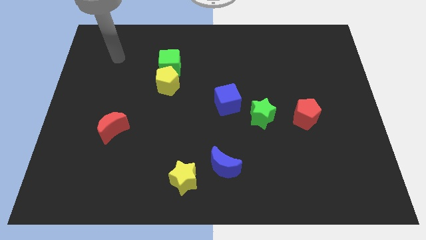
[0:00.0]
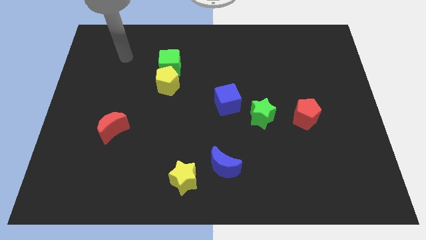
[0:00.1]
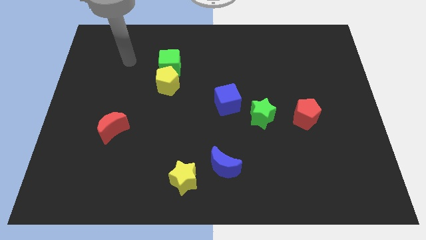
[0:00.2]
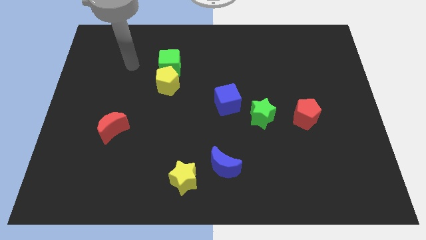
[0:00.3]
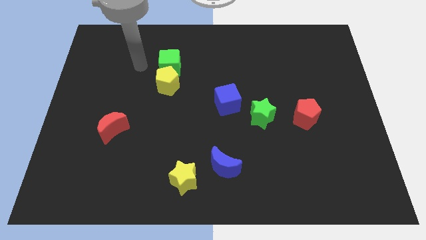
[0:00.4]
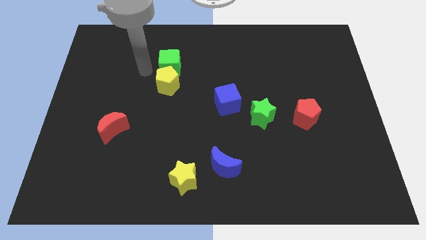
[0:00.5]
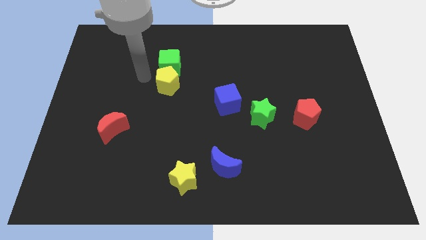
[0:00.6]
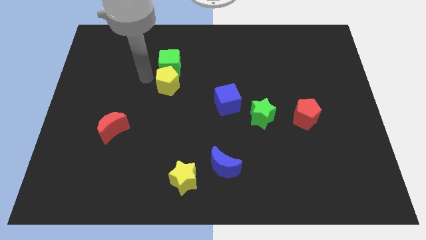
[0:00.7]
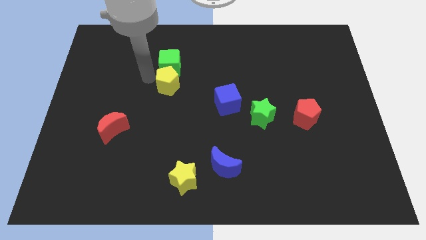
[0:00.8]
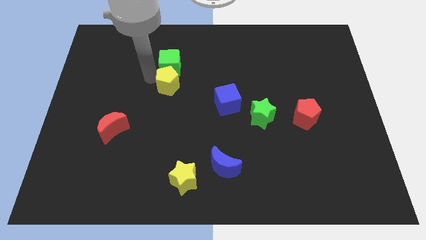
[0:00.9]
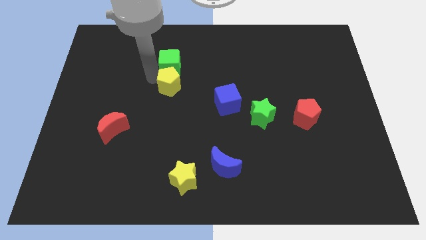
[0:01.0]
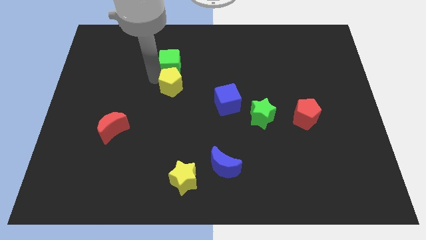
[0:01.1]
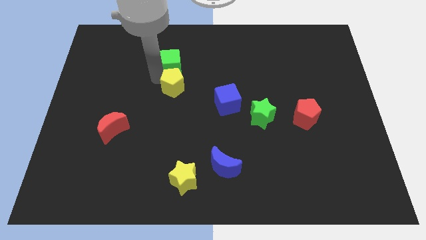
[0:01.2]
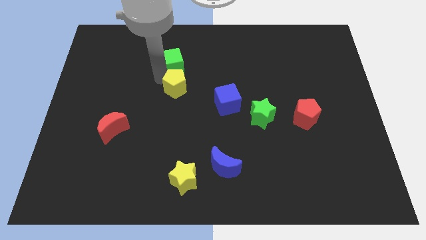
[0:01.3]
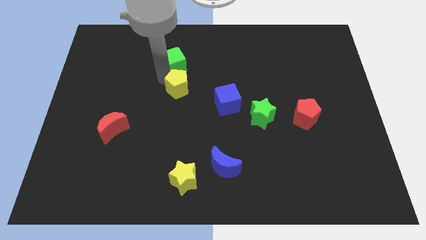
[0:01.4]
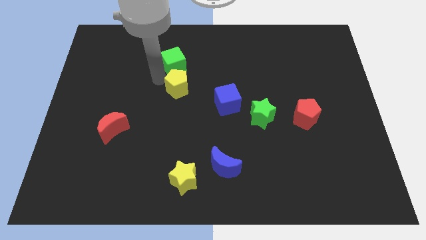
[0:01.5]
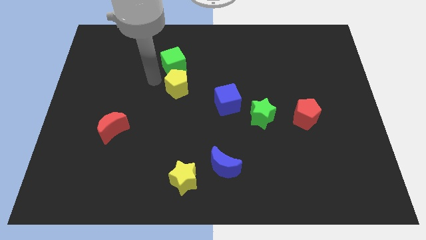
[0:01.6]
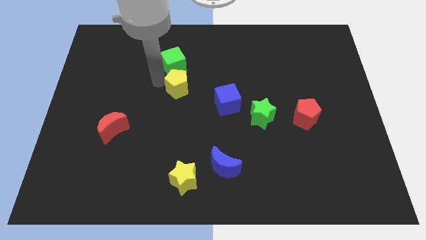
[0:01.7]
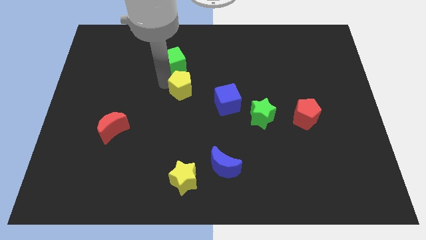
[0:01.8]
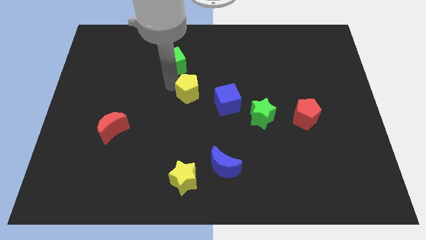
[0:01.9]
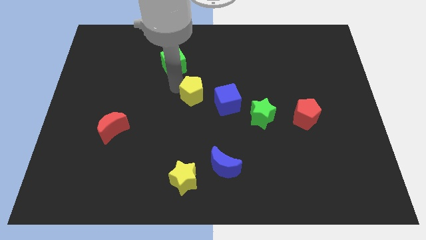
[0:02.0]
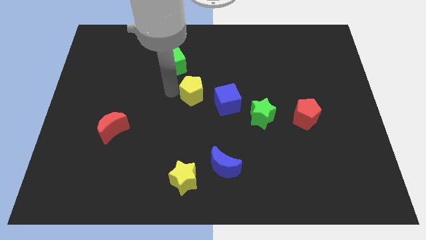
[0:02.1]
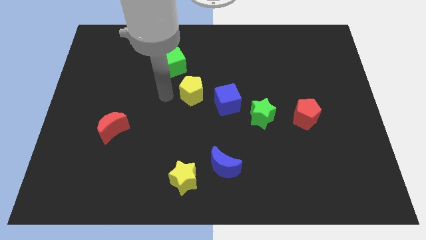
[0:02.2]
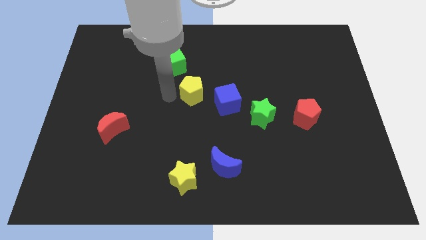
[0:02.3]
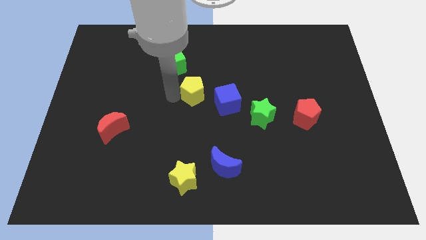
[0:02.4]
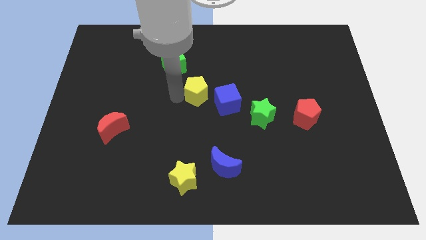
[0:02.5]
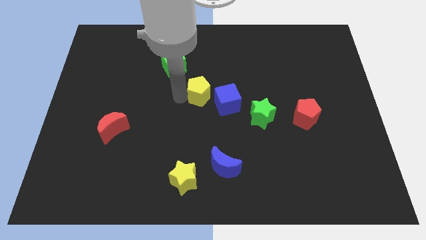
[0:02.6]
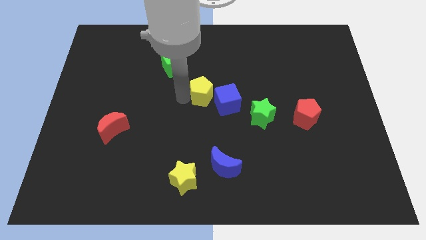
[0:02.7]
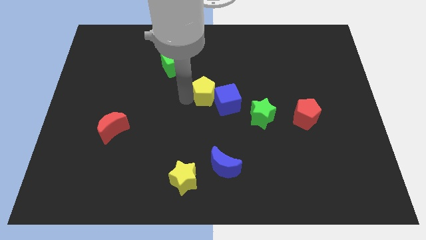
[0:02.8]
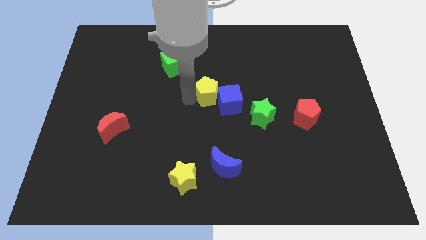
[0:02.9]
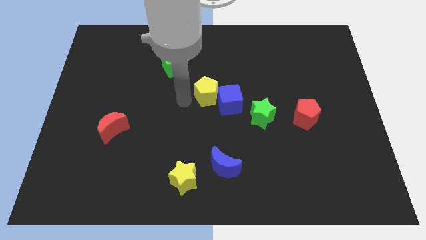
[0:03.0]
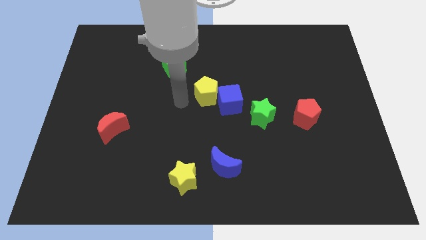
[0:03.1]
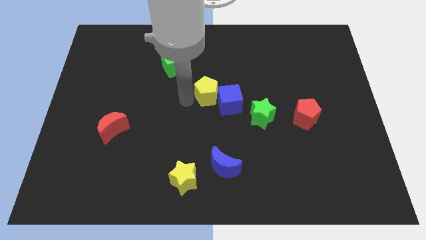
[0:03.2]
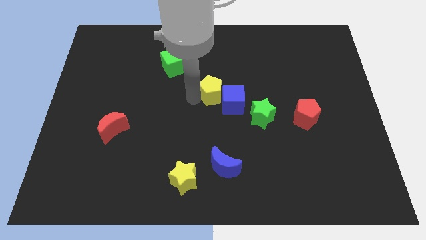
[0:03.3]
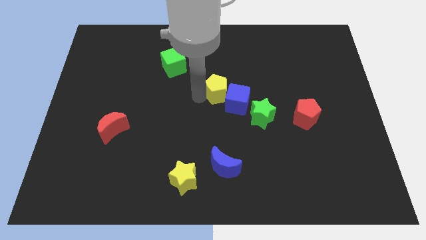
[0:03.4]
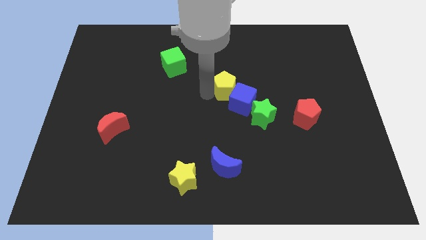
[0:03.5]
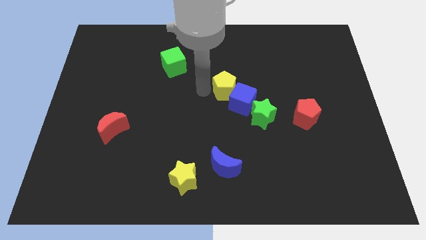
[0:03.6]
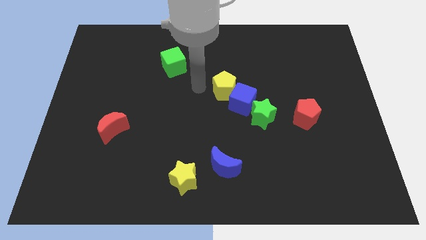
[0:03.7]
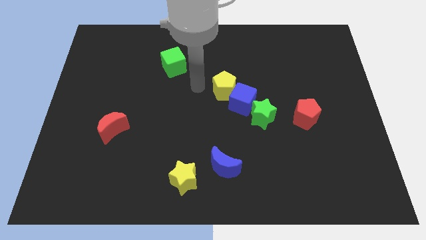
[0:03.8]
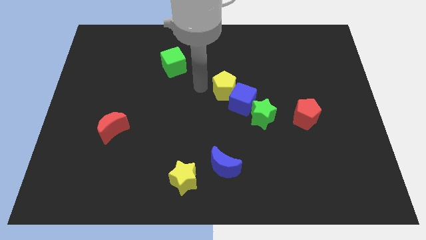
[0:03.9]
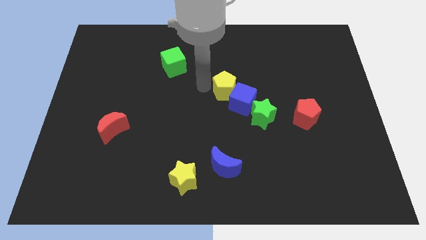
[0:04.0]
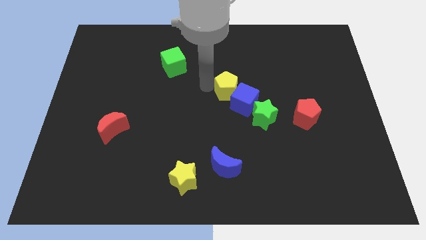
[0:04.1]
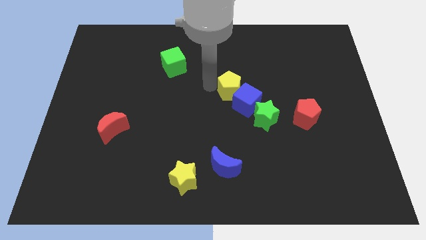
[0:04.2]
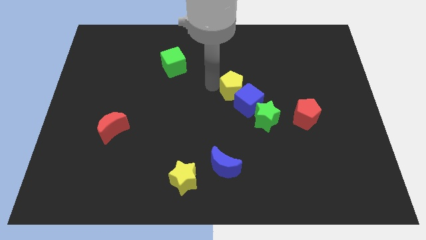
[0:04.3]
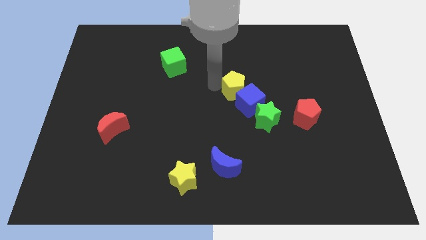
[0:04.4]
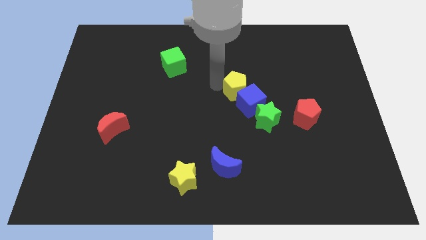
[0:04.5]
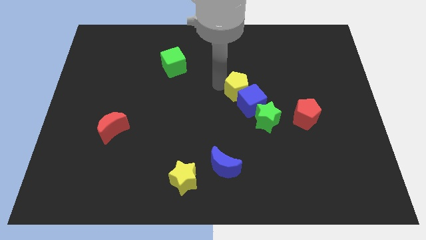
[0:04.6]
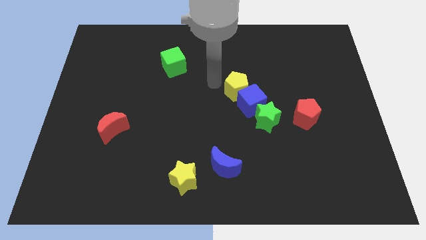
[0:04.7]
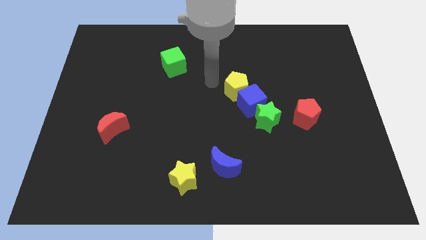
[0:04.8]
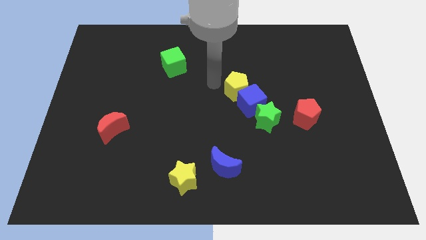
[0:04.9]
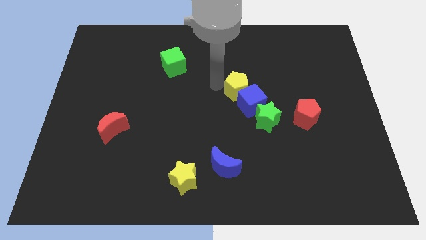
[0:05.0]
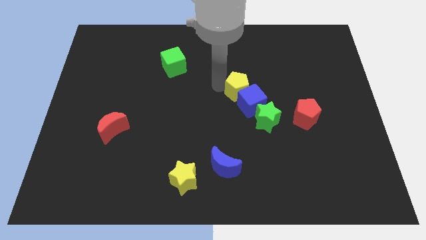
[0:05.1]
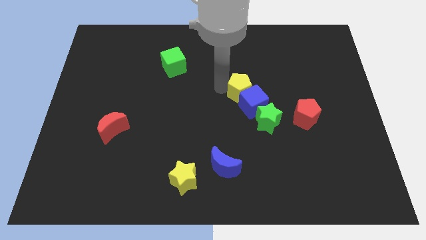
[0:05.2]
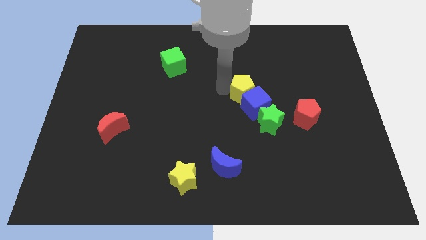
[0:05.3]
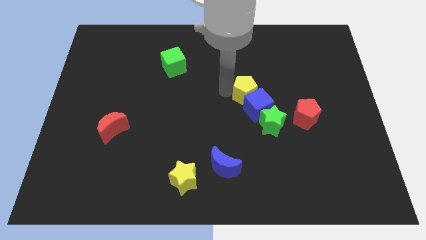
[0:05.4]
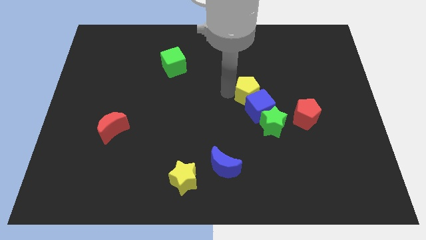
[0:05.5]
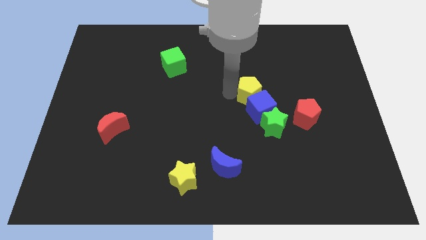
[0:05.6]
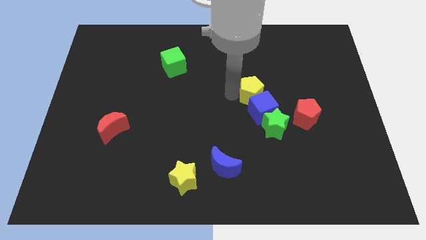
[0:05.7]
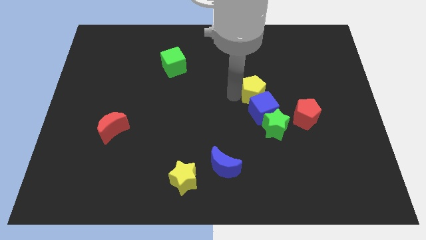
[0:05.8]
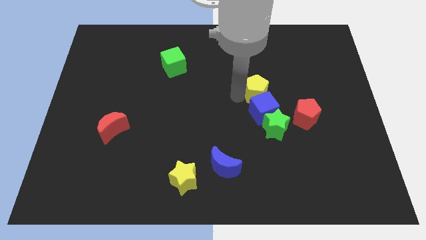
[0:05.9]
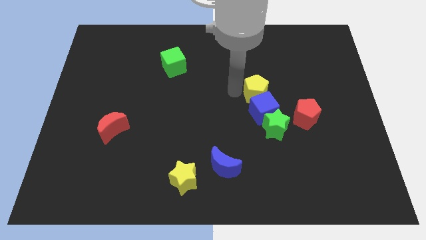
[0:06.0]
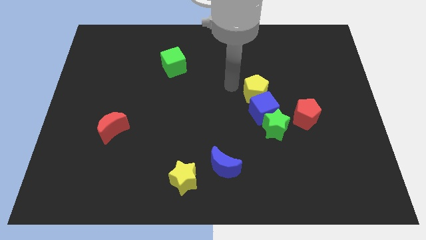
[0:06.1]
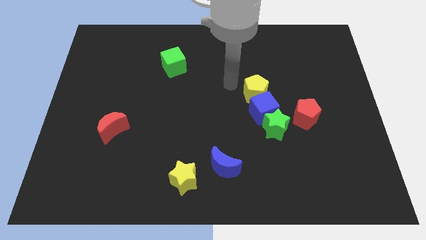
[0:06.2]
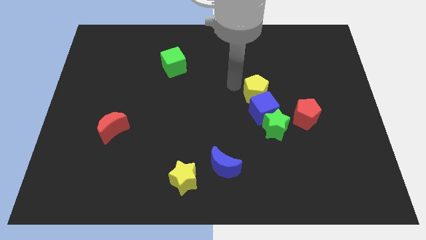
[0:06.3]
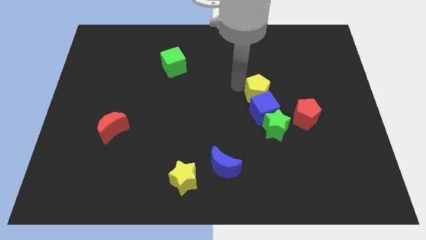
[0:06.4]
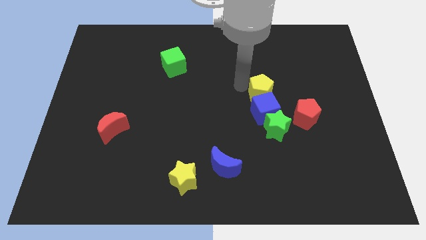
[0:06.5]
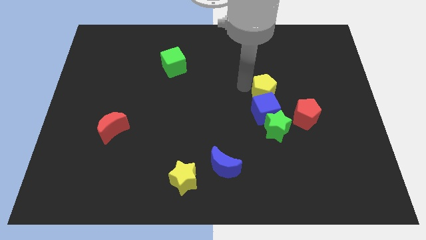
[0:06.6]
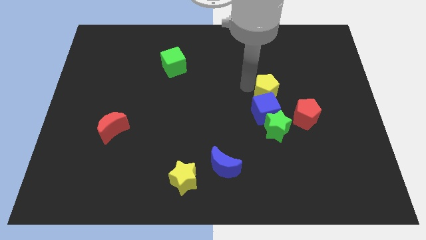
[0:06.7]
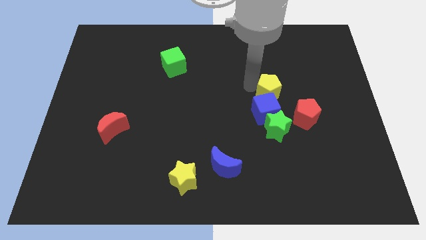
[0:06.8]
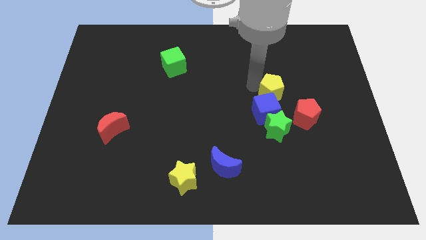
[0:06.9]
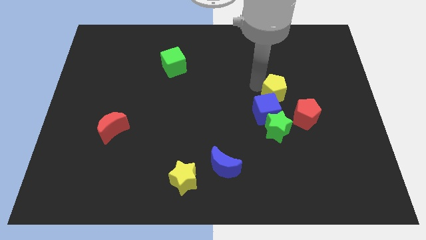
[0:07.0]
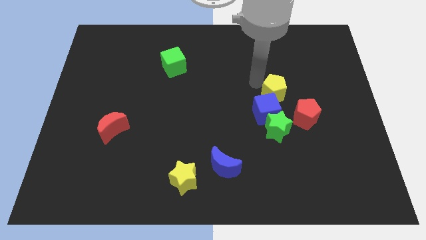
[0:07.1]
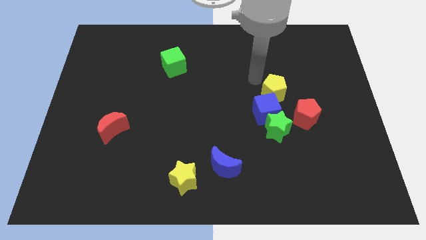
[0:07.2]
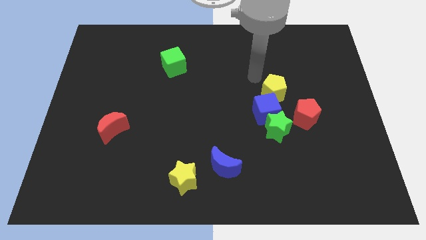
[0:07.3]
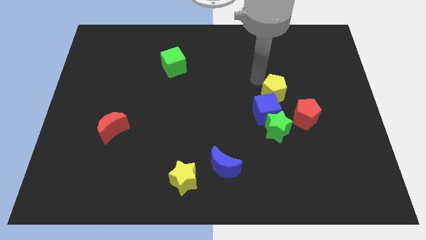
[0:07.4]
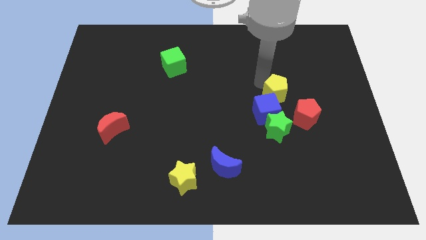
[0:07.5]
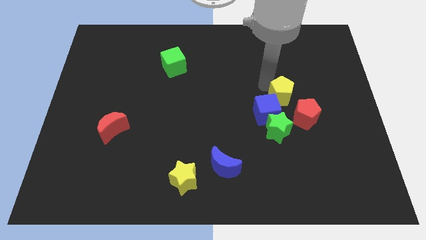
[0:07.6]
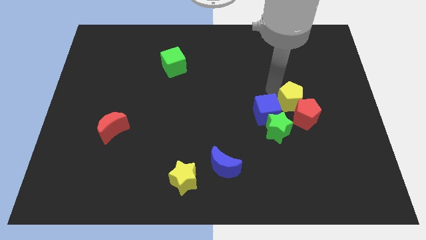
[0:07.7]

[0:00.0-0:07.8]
push the yellow pentagon to the red pentagon
